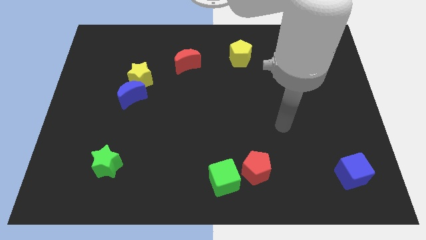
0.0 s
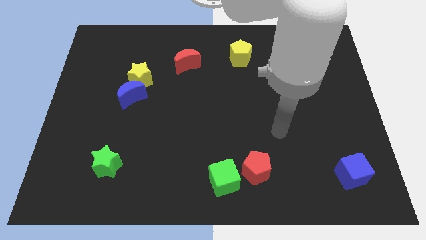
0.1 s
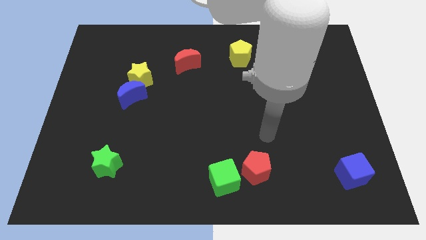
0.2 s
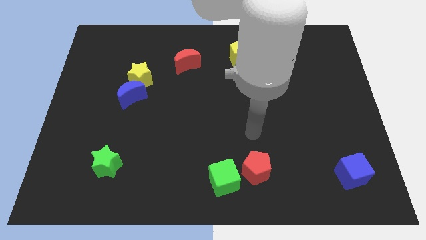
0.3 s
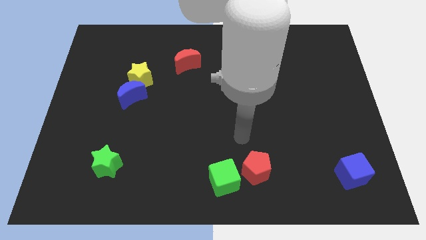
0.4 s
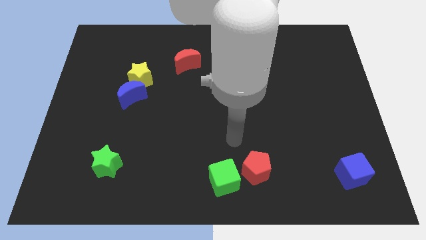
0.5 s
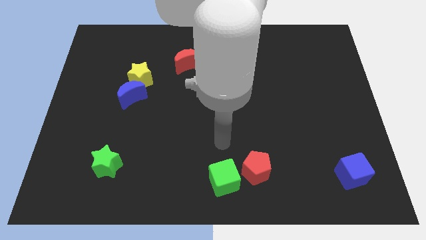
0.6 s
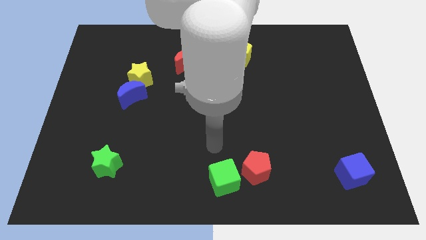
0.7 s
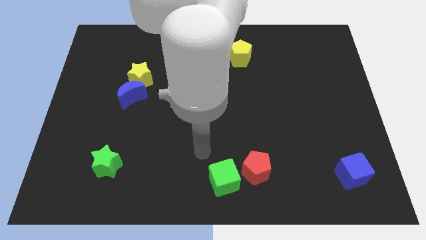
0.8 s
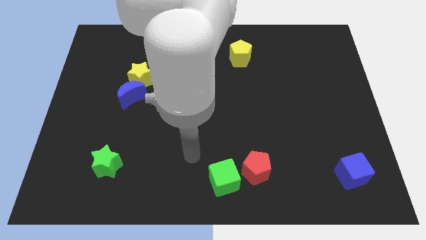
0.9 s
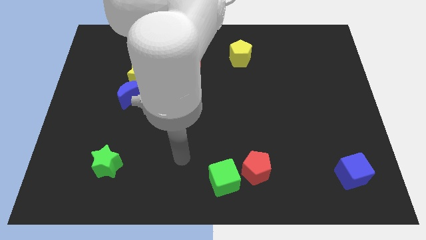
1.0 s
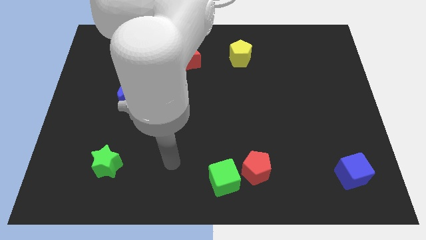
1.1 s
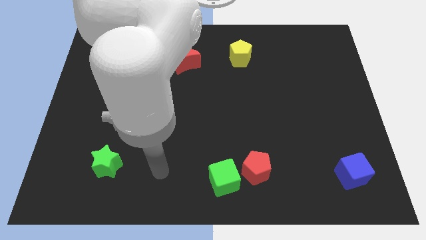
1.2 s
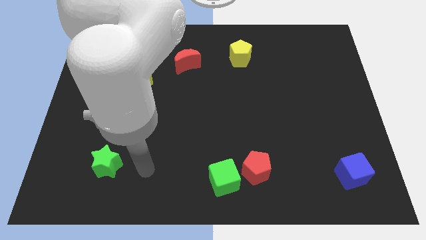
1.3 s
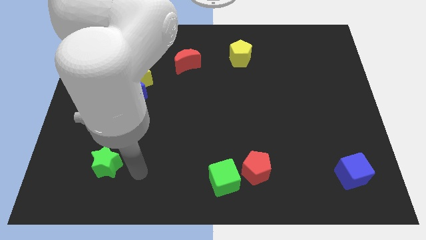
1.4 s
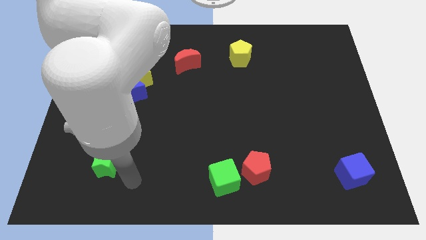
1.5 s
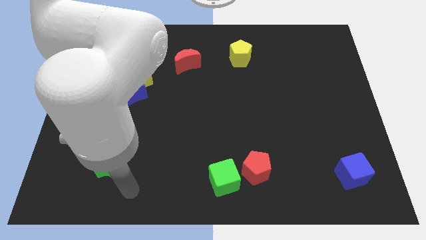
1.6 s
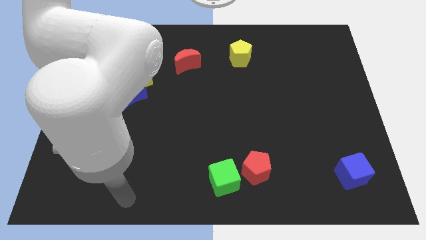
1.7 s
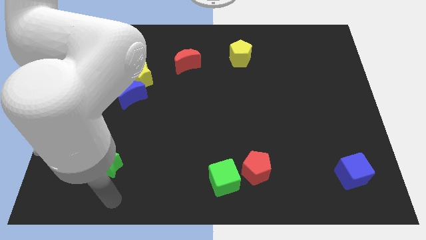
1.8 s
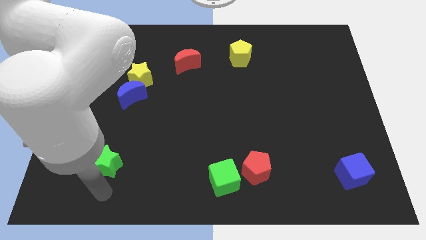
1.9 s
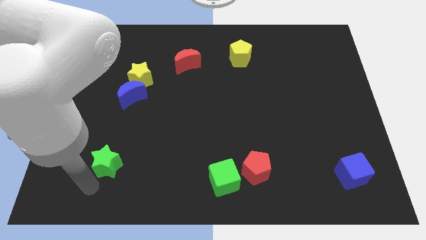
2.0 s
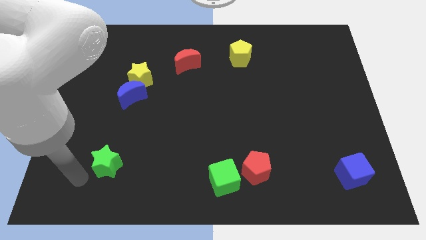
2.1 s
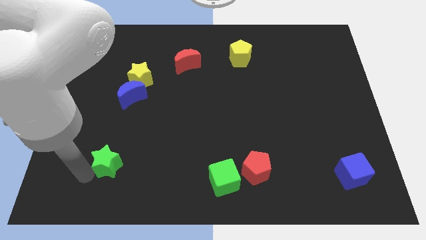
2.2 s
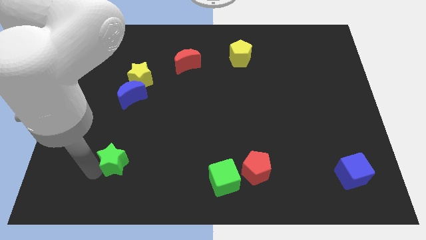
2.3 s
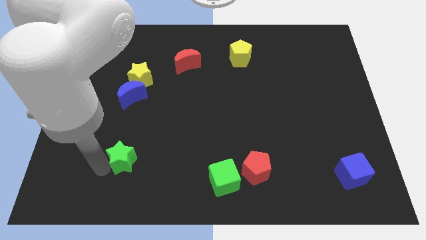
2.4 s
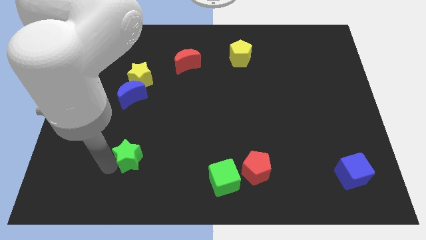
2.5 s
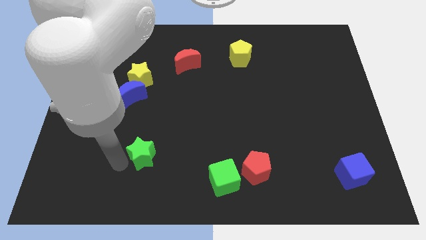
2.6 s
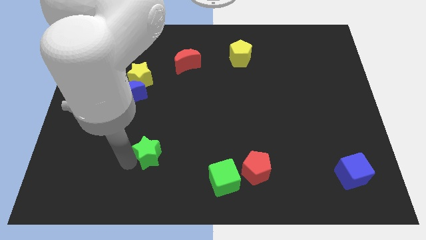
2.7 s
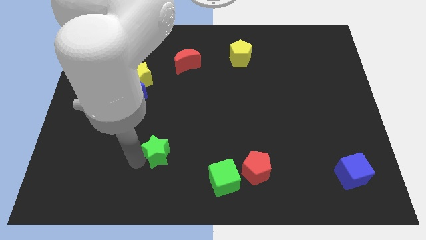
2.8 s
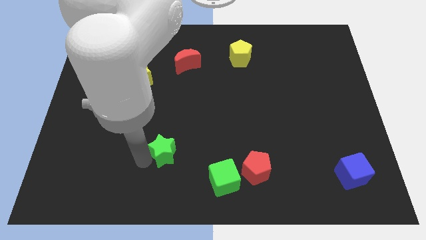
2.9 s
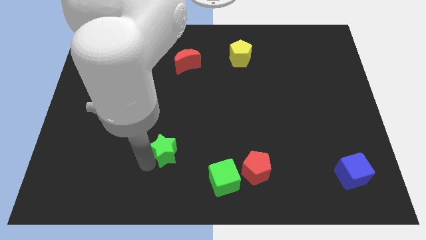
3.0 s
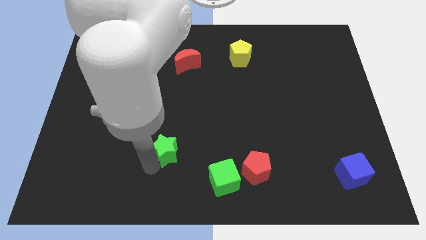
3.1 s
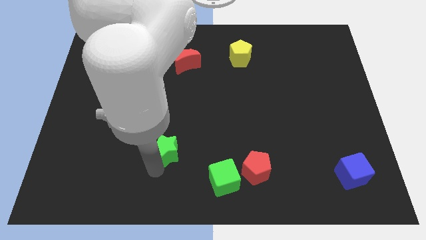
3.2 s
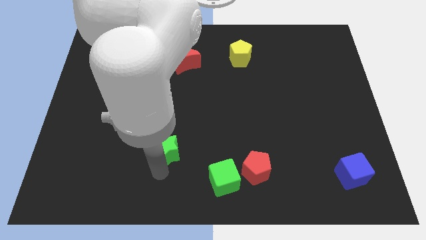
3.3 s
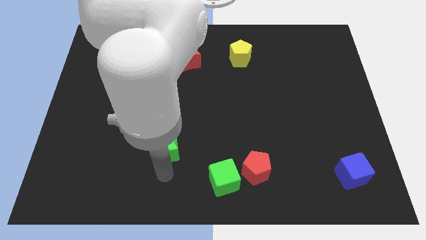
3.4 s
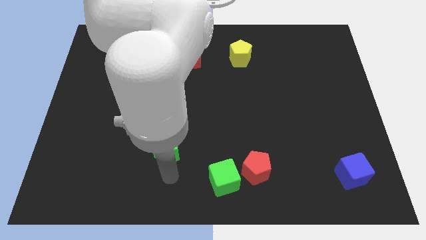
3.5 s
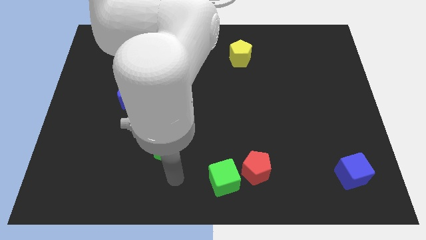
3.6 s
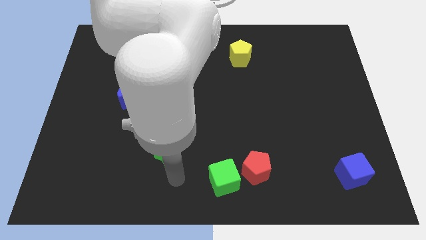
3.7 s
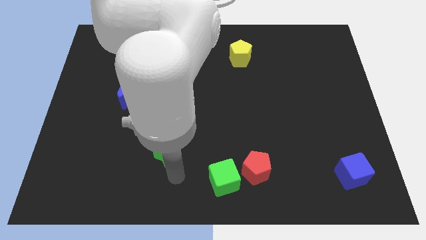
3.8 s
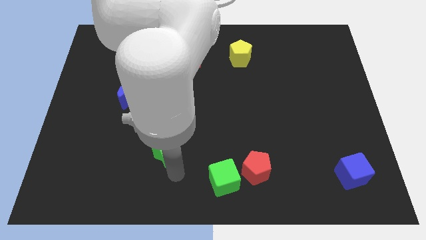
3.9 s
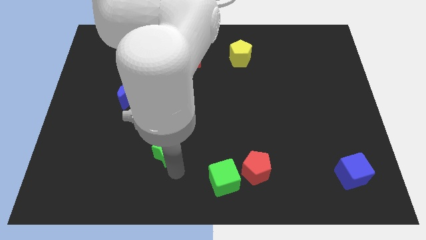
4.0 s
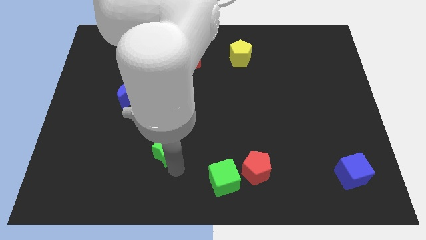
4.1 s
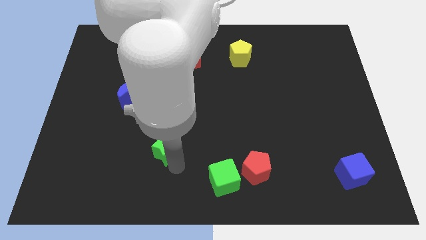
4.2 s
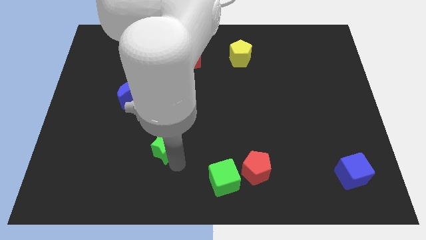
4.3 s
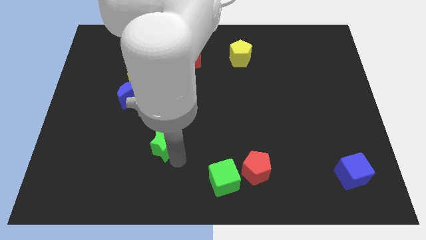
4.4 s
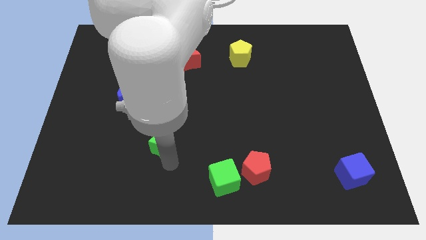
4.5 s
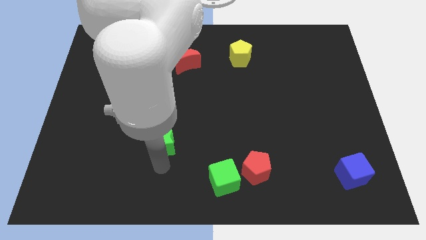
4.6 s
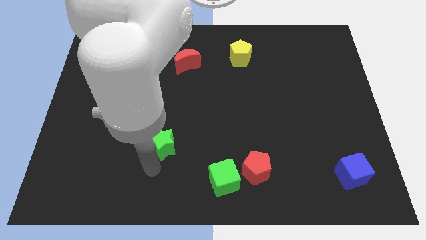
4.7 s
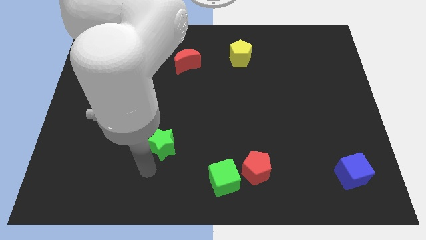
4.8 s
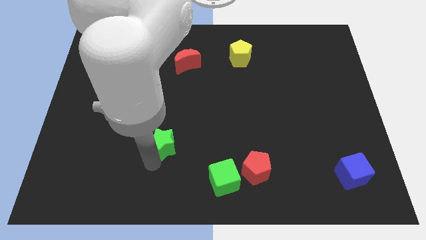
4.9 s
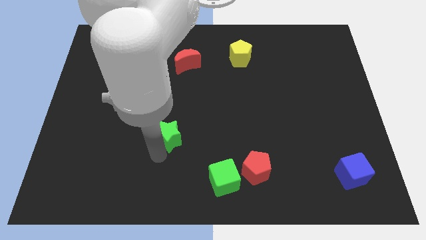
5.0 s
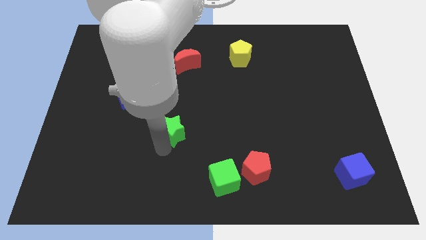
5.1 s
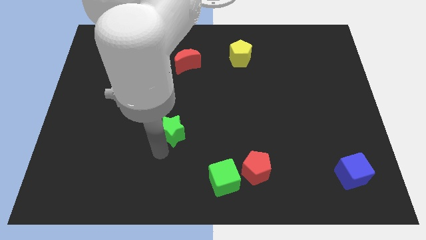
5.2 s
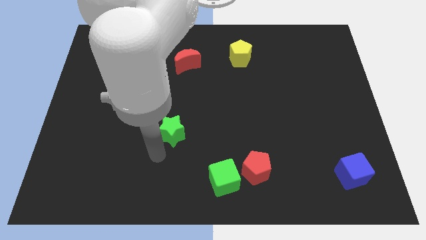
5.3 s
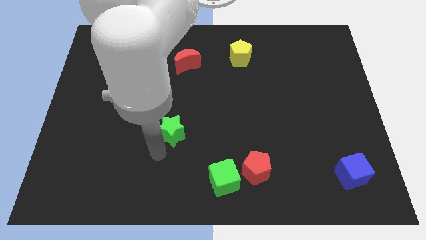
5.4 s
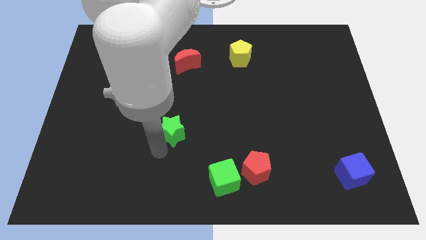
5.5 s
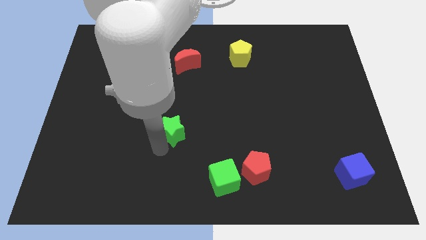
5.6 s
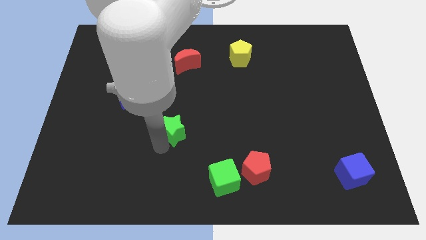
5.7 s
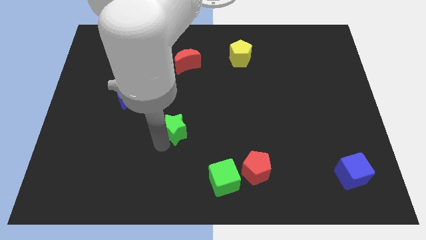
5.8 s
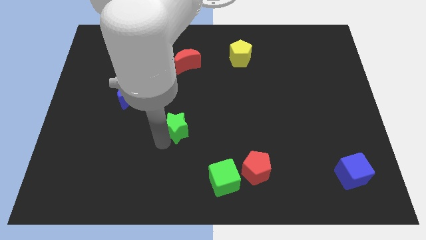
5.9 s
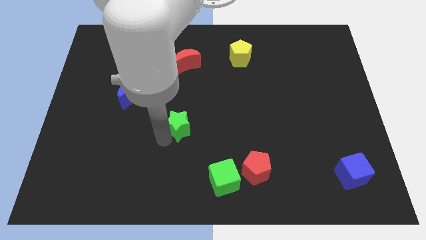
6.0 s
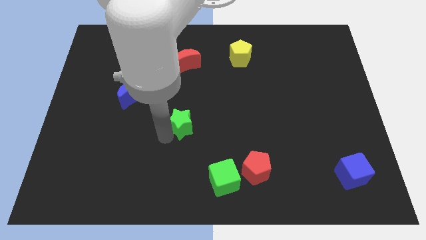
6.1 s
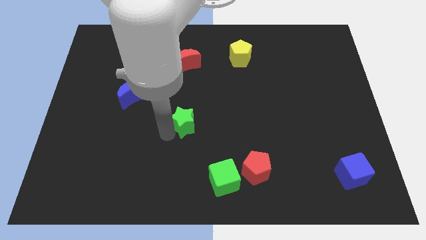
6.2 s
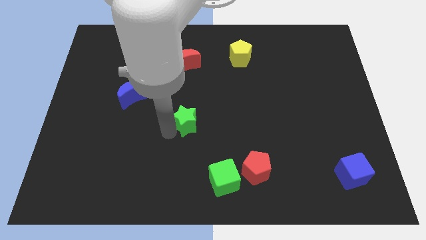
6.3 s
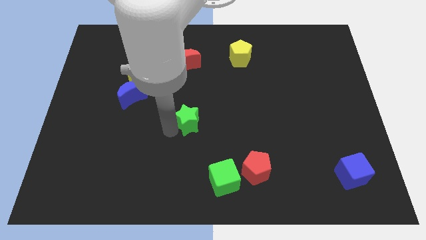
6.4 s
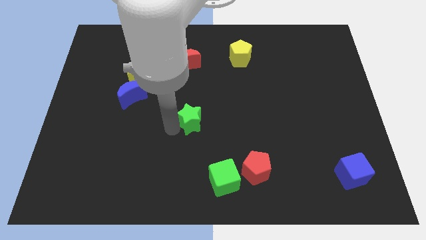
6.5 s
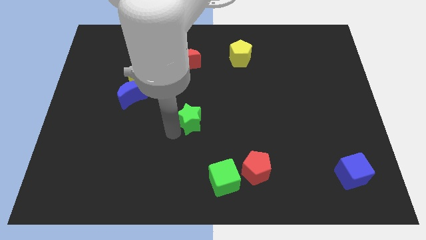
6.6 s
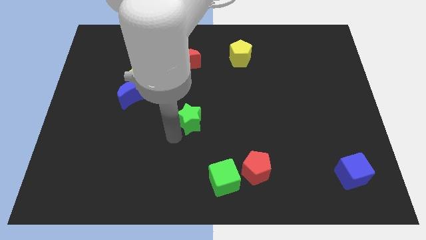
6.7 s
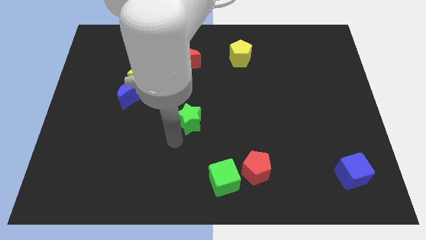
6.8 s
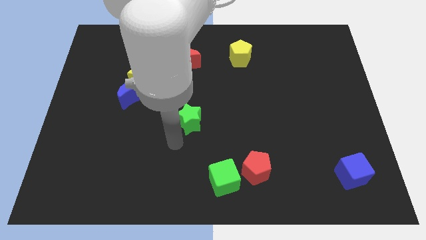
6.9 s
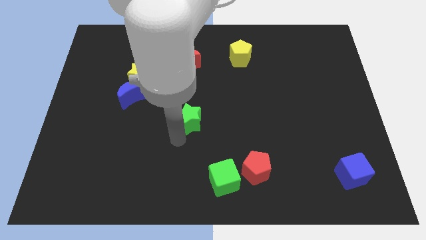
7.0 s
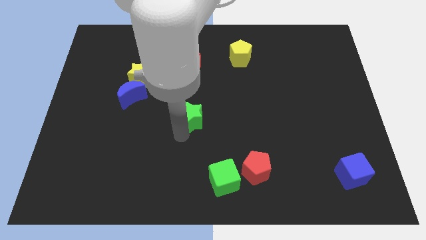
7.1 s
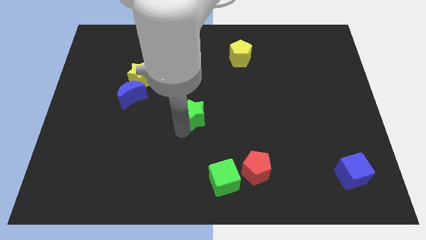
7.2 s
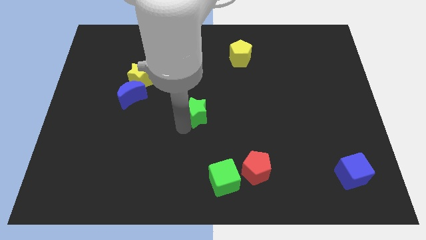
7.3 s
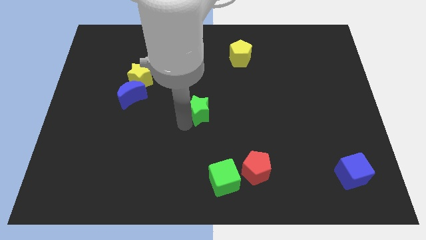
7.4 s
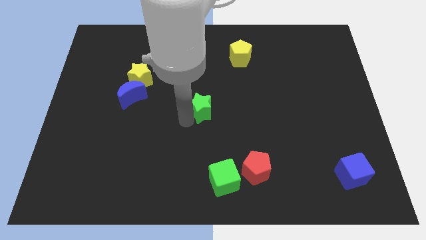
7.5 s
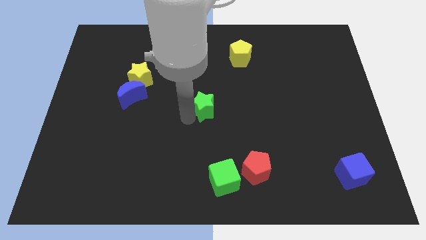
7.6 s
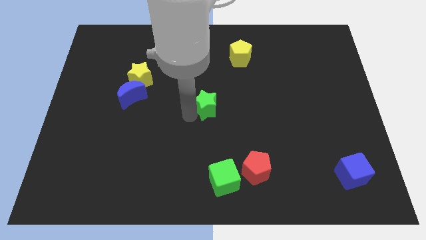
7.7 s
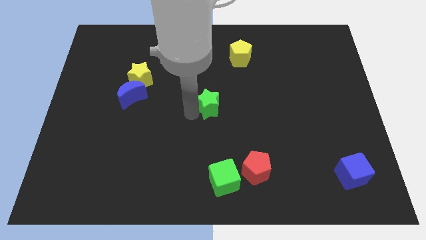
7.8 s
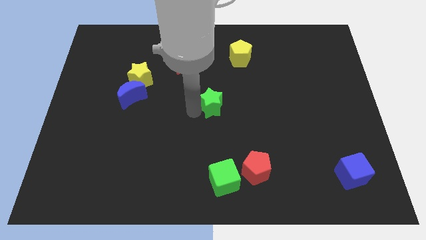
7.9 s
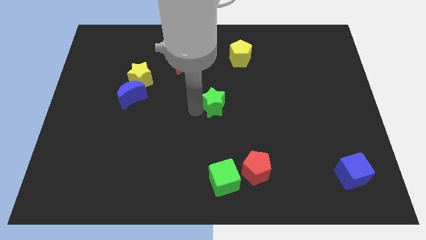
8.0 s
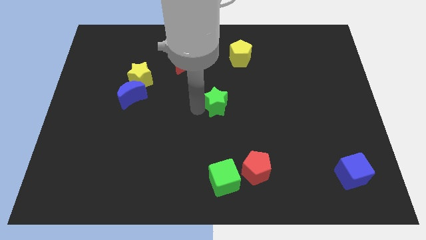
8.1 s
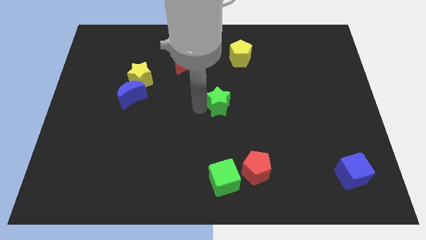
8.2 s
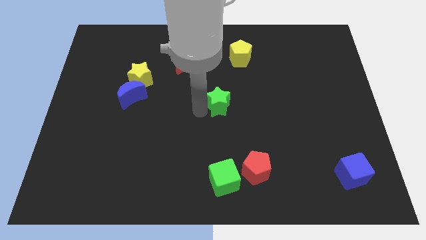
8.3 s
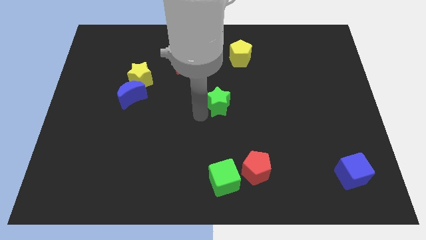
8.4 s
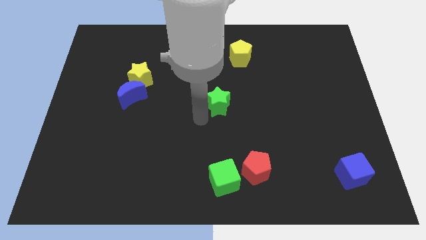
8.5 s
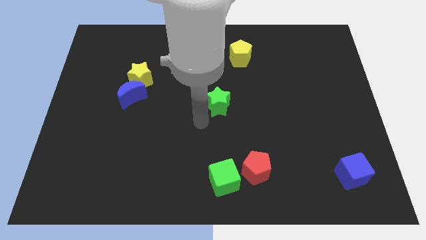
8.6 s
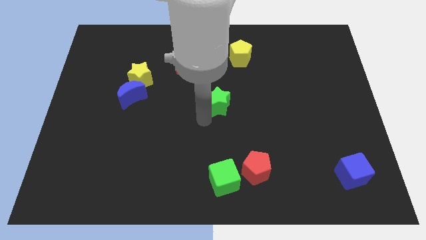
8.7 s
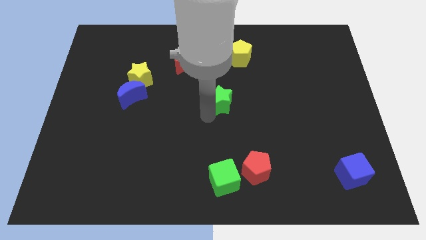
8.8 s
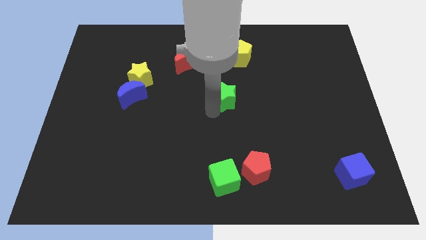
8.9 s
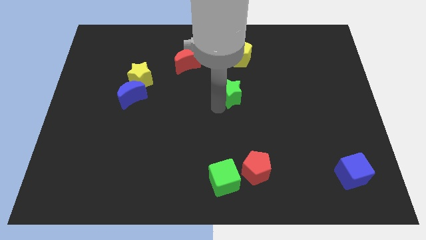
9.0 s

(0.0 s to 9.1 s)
push the green star to the bottom of the yellow pentagon
